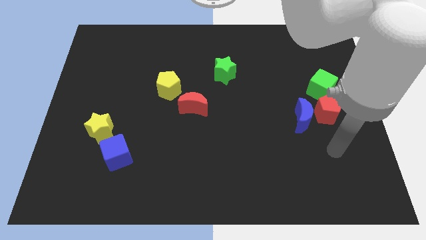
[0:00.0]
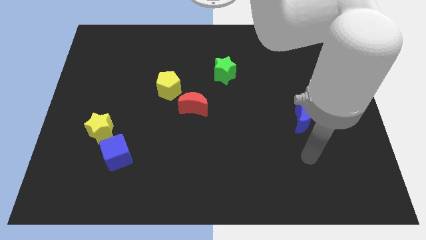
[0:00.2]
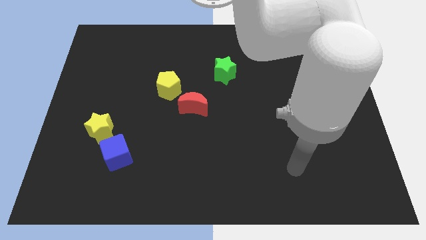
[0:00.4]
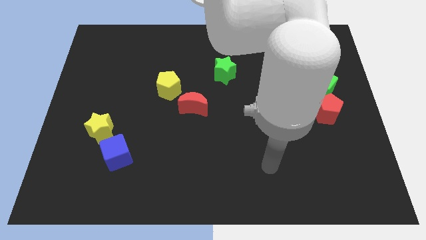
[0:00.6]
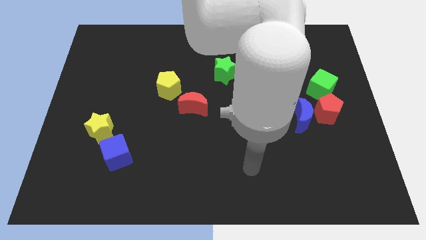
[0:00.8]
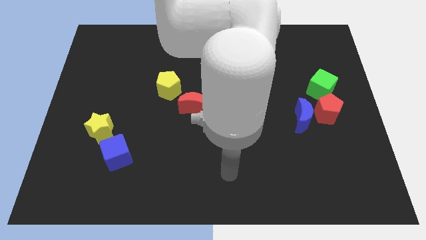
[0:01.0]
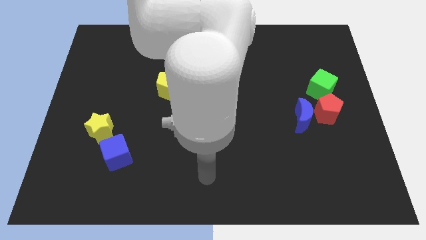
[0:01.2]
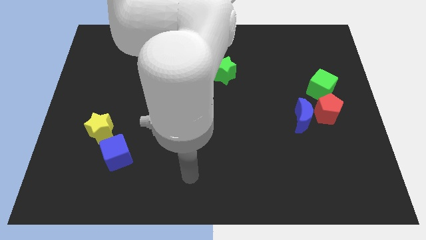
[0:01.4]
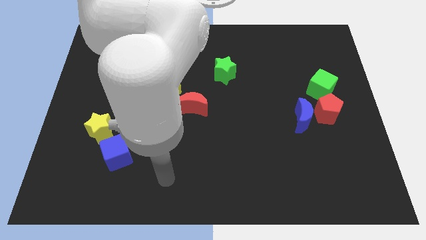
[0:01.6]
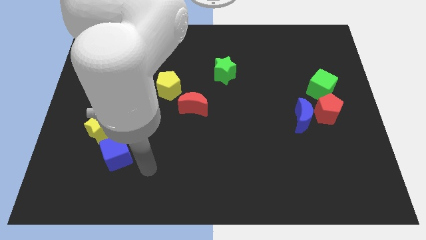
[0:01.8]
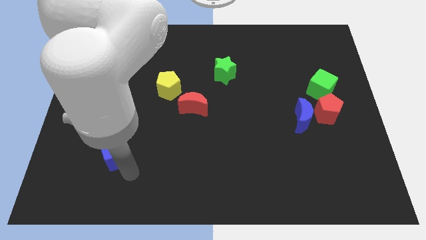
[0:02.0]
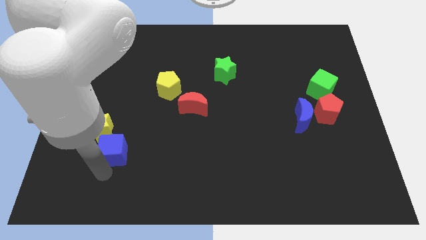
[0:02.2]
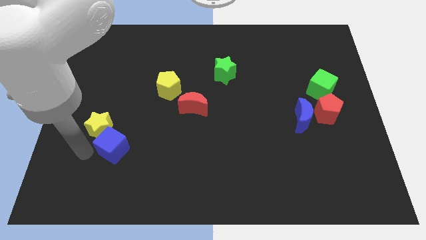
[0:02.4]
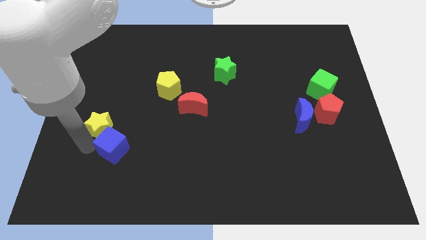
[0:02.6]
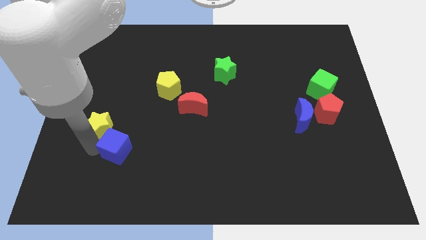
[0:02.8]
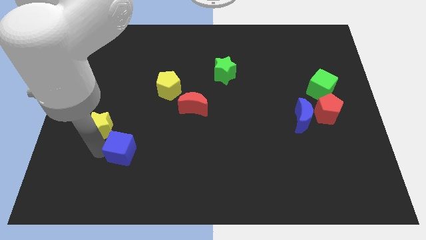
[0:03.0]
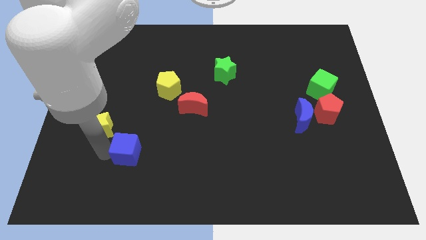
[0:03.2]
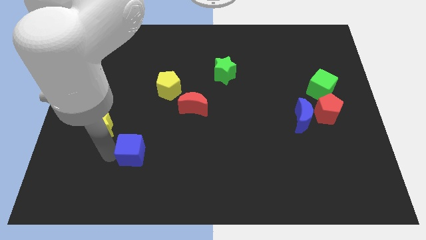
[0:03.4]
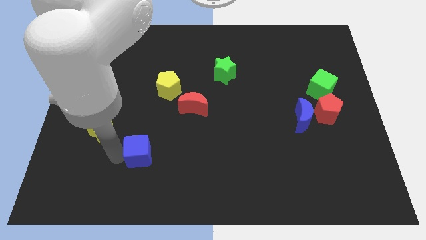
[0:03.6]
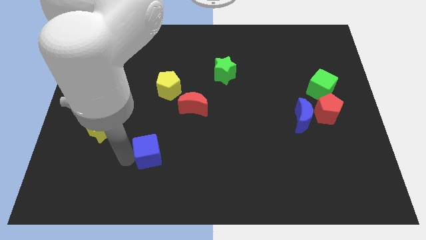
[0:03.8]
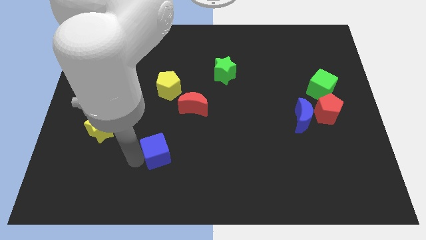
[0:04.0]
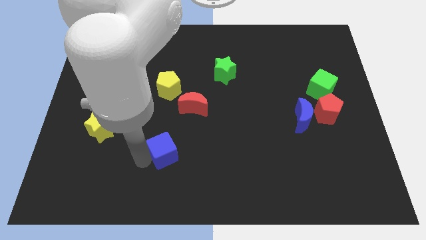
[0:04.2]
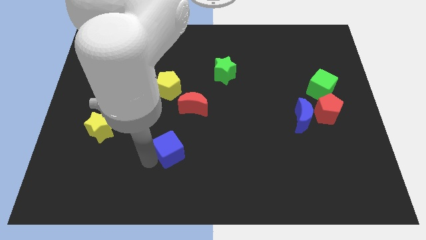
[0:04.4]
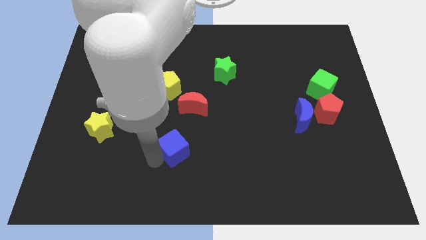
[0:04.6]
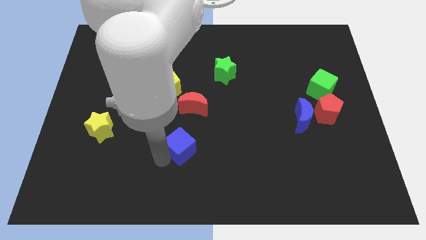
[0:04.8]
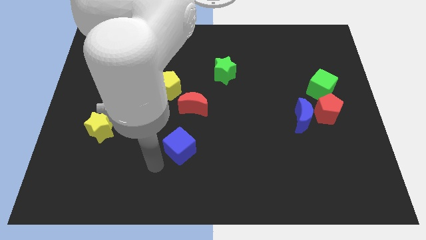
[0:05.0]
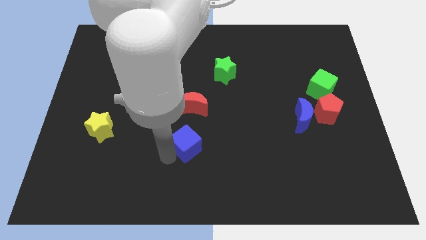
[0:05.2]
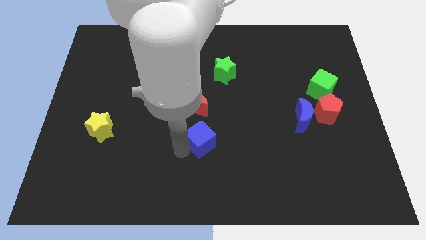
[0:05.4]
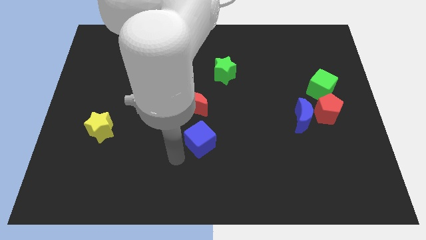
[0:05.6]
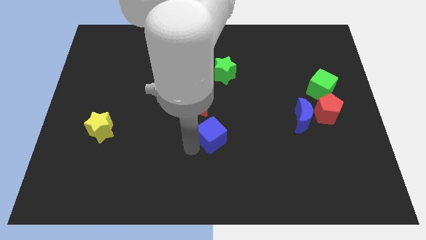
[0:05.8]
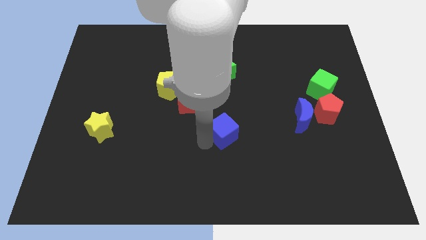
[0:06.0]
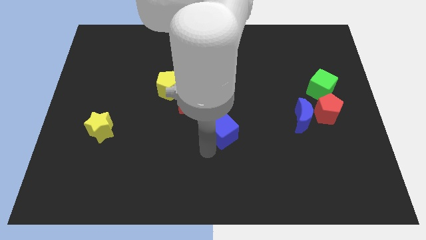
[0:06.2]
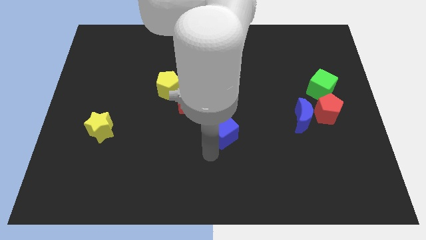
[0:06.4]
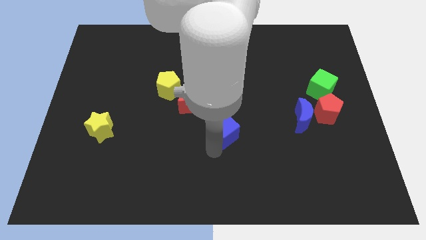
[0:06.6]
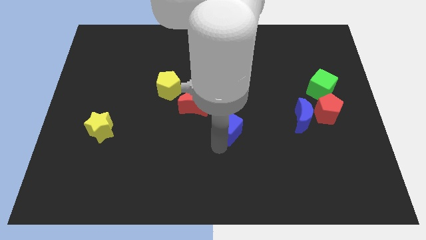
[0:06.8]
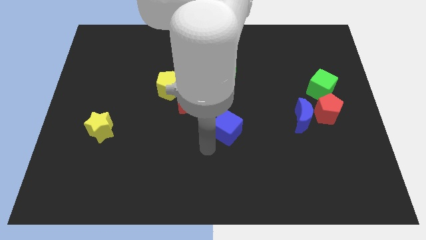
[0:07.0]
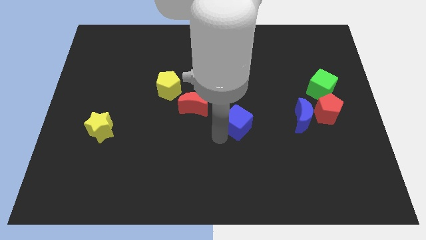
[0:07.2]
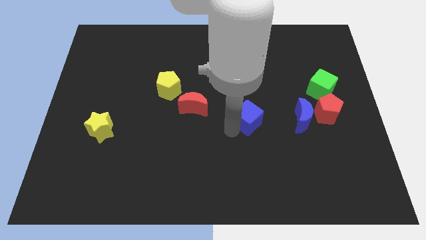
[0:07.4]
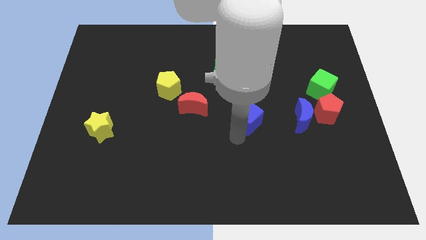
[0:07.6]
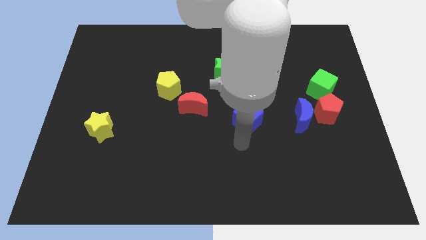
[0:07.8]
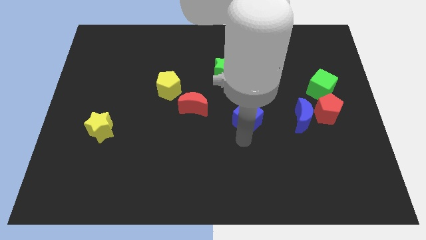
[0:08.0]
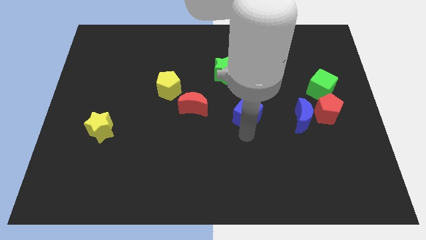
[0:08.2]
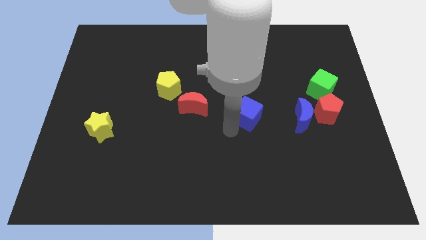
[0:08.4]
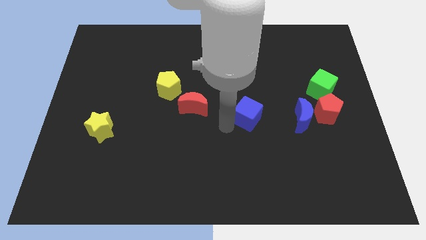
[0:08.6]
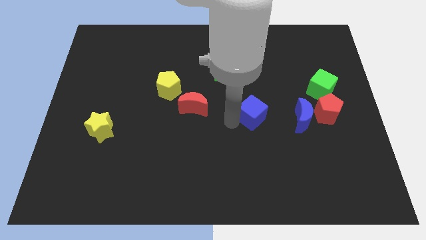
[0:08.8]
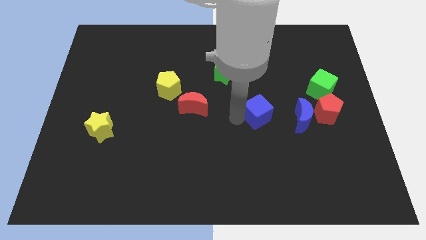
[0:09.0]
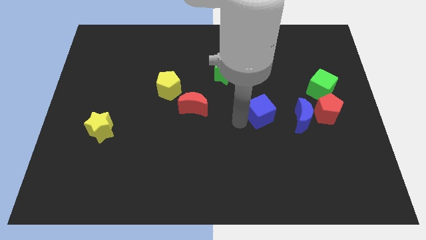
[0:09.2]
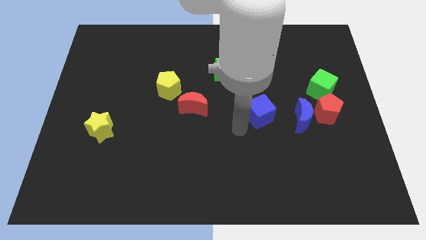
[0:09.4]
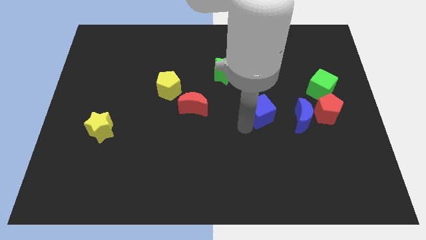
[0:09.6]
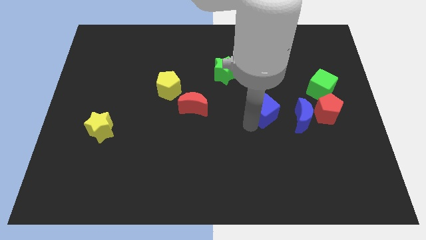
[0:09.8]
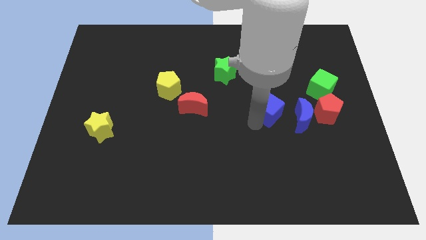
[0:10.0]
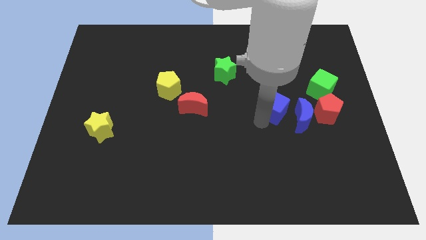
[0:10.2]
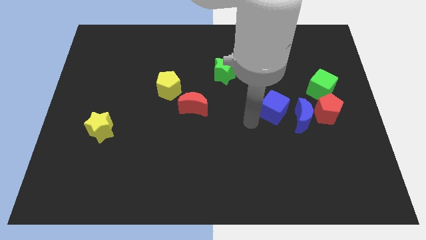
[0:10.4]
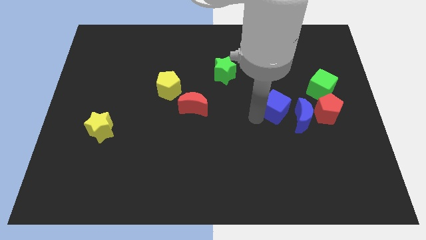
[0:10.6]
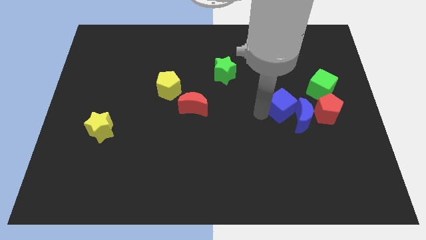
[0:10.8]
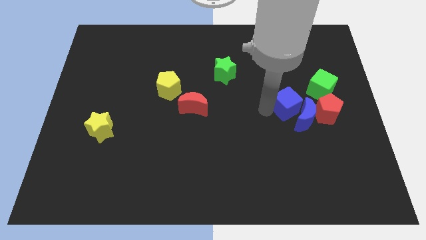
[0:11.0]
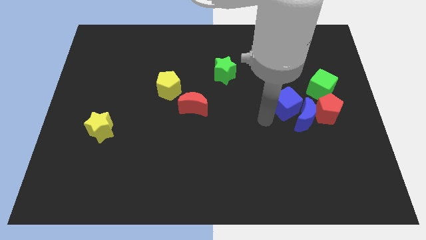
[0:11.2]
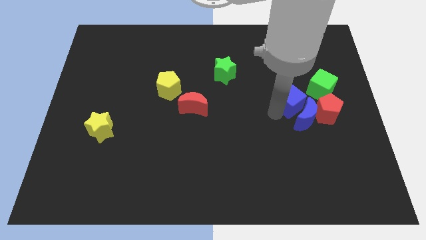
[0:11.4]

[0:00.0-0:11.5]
slide the blue cube to the top left of the red pentagon

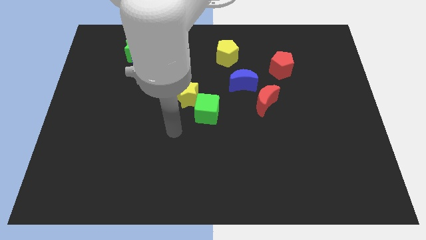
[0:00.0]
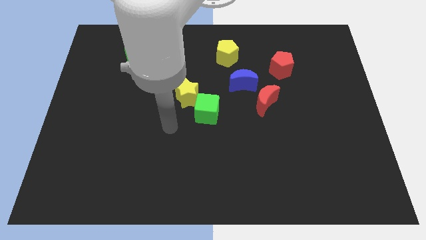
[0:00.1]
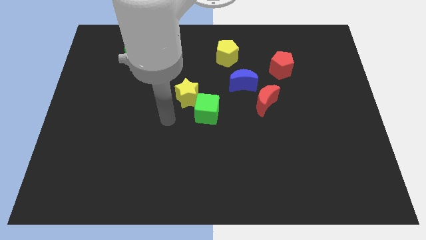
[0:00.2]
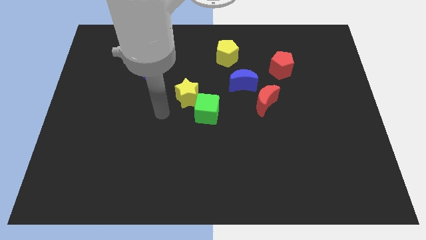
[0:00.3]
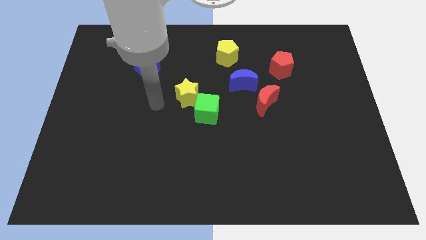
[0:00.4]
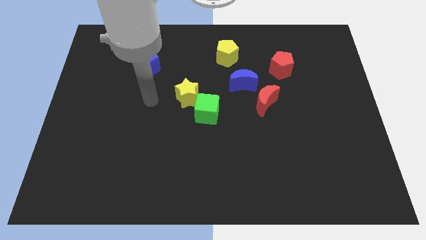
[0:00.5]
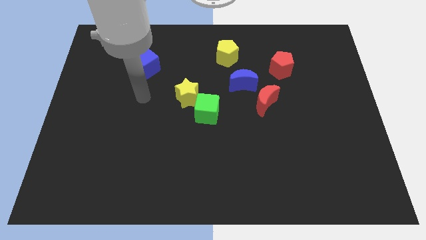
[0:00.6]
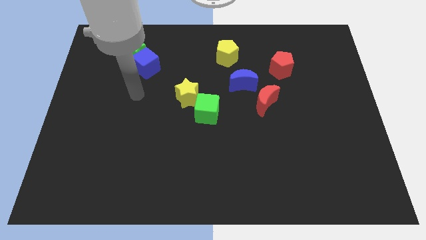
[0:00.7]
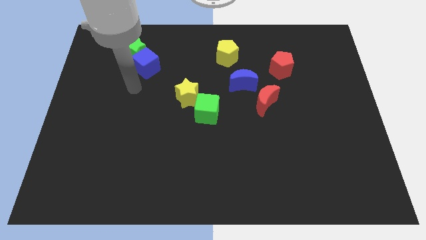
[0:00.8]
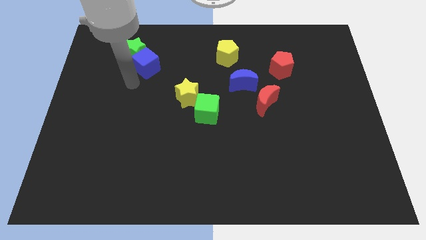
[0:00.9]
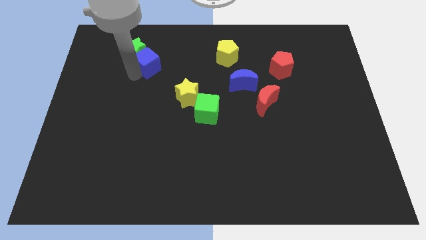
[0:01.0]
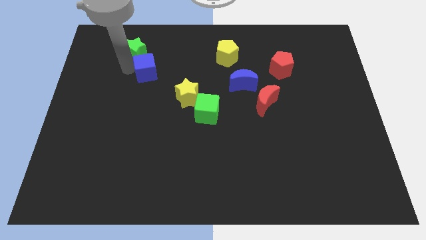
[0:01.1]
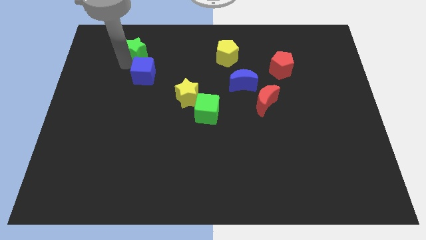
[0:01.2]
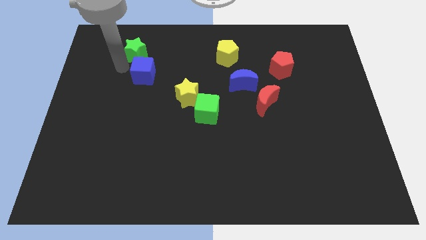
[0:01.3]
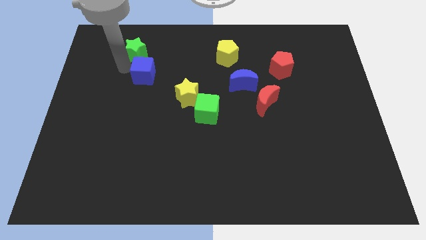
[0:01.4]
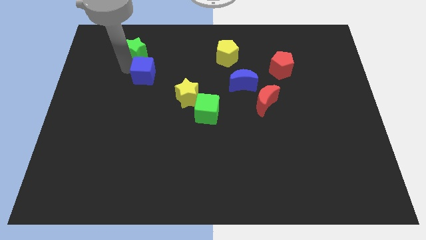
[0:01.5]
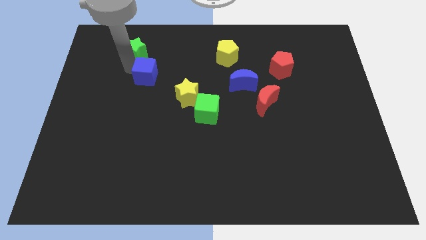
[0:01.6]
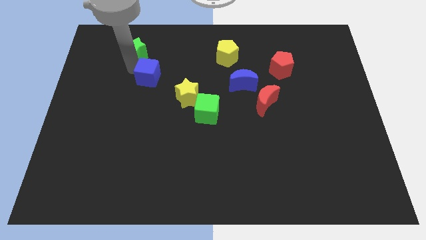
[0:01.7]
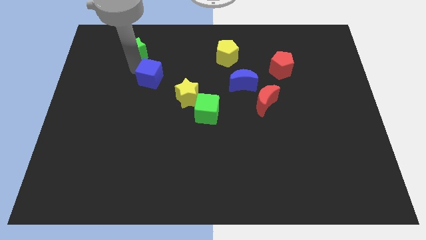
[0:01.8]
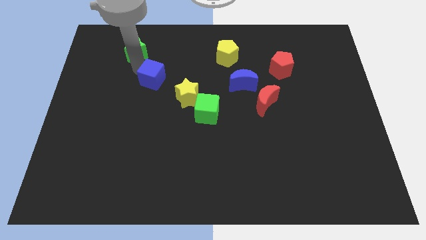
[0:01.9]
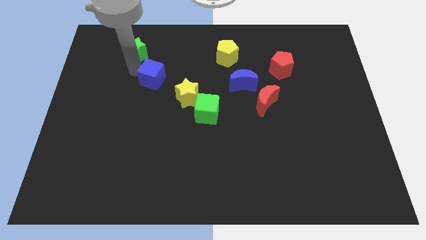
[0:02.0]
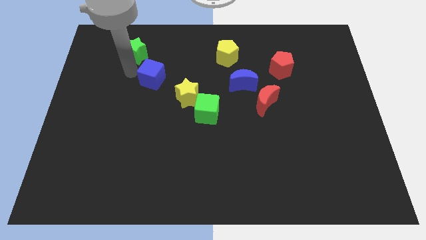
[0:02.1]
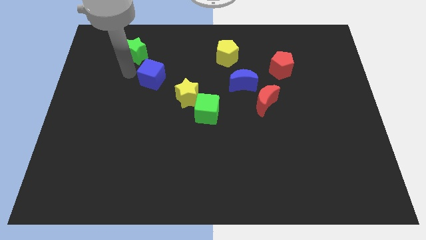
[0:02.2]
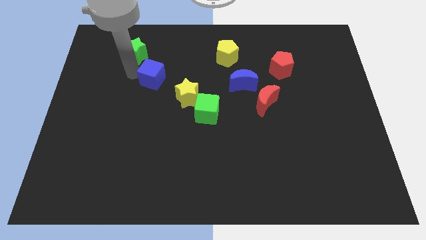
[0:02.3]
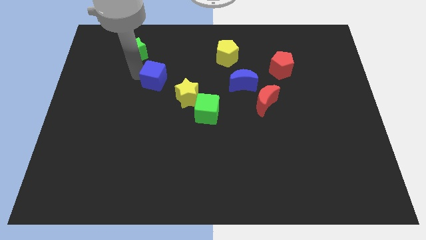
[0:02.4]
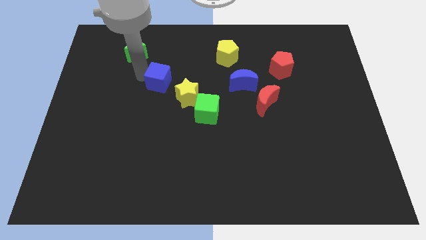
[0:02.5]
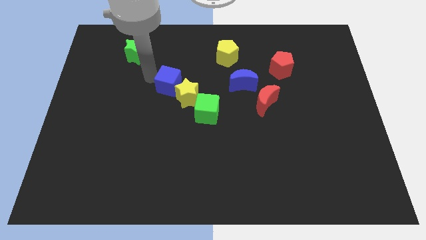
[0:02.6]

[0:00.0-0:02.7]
slide the blue cube diagonally up and to the left of the green cube
